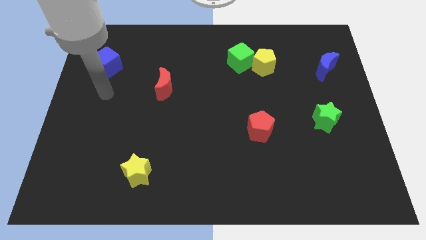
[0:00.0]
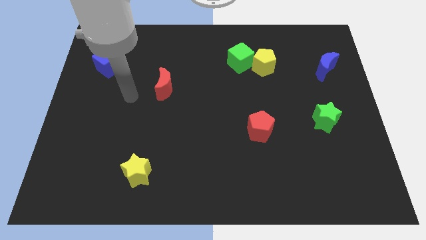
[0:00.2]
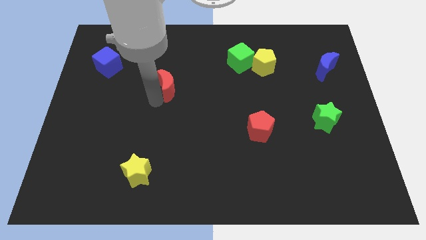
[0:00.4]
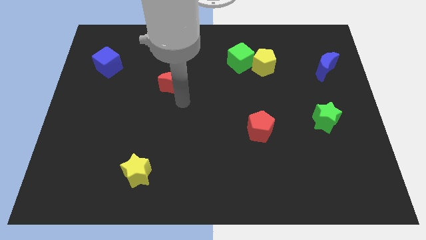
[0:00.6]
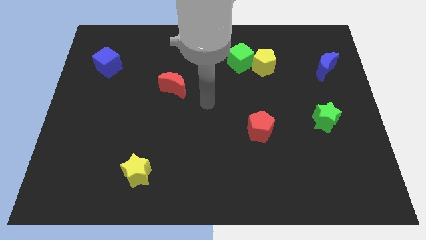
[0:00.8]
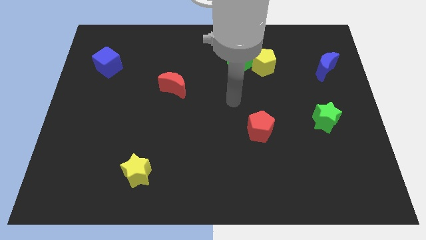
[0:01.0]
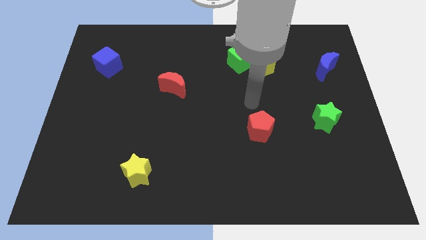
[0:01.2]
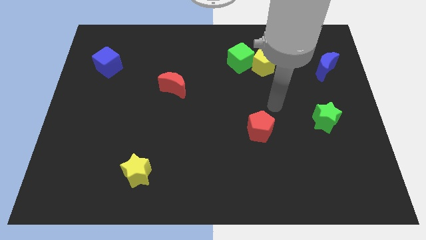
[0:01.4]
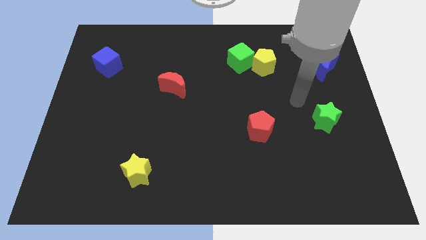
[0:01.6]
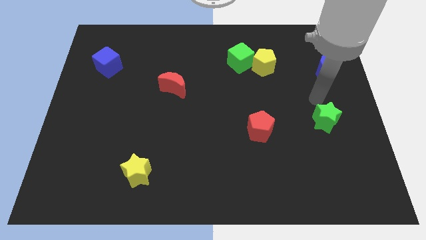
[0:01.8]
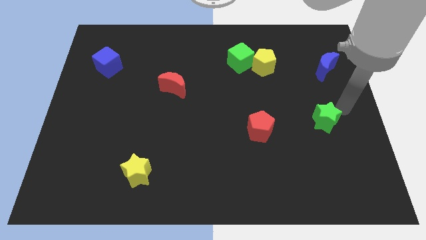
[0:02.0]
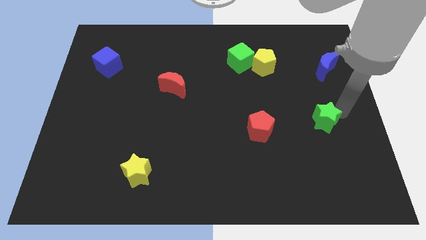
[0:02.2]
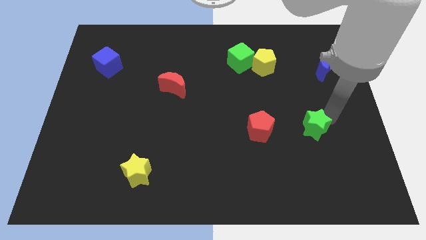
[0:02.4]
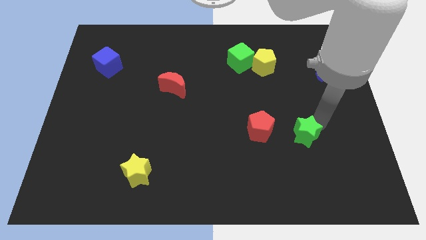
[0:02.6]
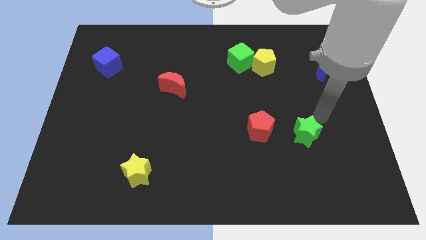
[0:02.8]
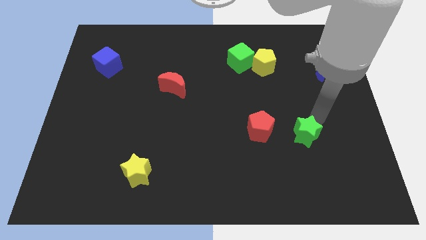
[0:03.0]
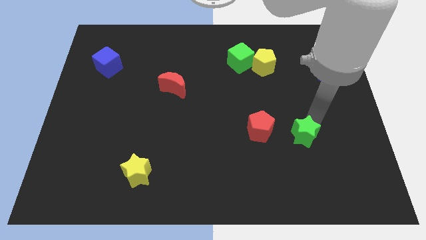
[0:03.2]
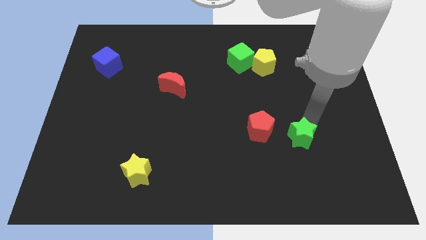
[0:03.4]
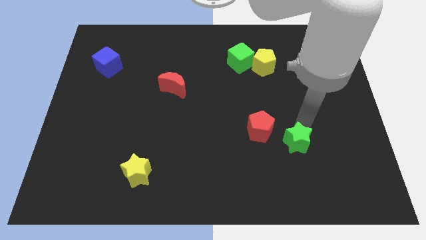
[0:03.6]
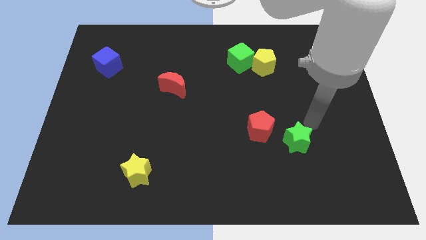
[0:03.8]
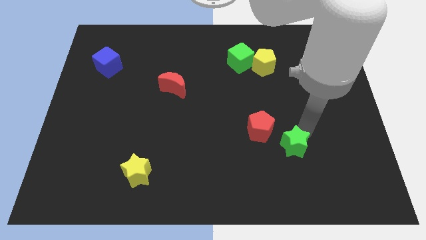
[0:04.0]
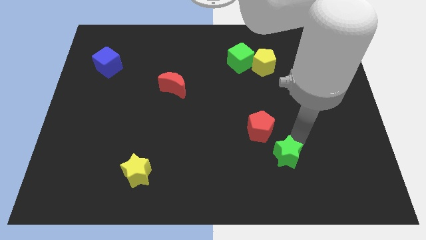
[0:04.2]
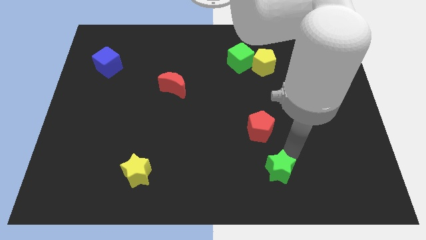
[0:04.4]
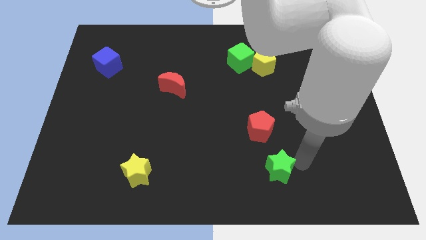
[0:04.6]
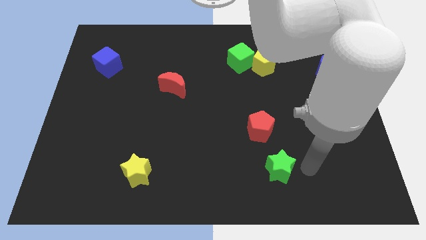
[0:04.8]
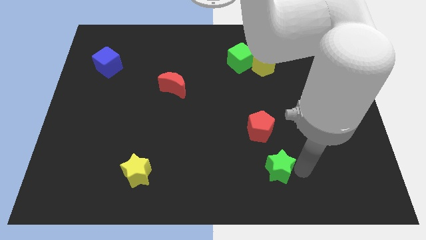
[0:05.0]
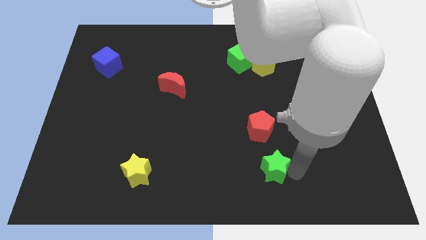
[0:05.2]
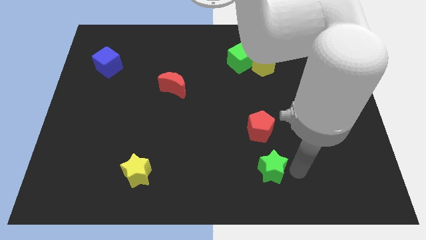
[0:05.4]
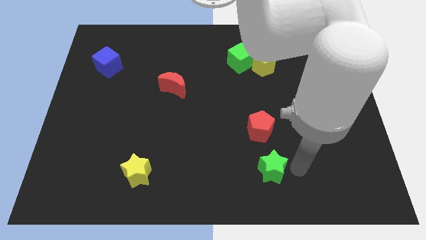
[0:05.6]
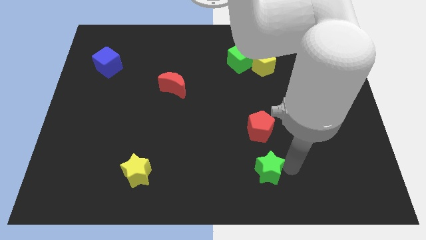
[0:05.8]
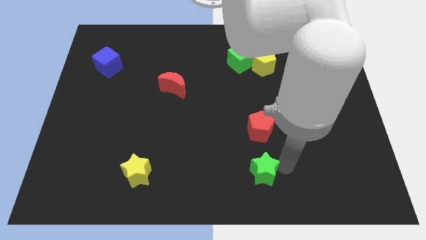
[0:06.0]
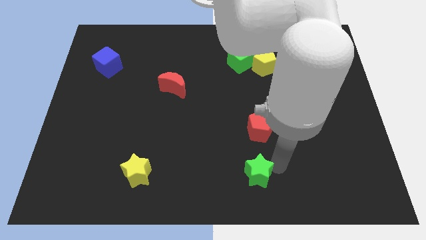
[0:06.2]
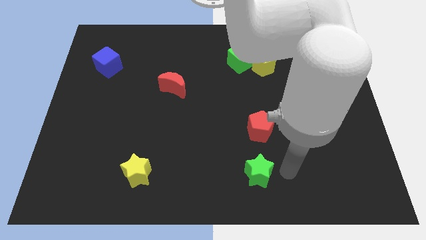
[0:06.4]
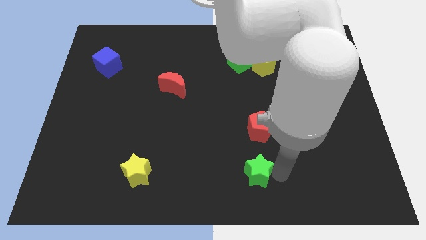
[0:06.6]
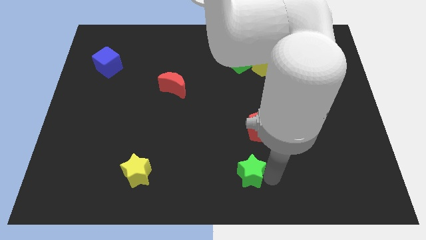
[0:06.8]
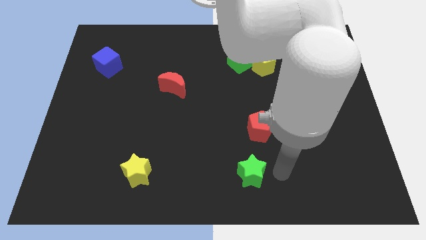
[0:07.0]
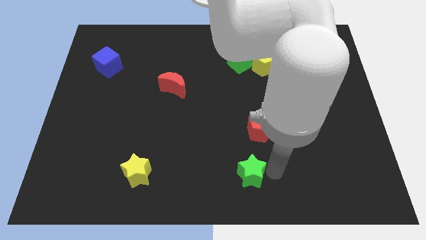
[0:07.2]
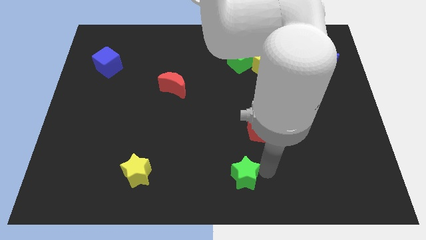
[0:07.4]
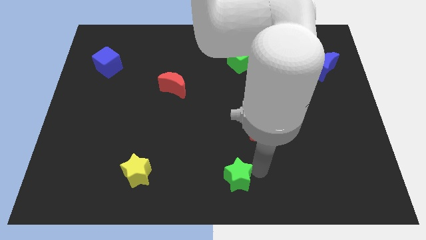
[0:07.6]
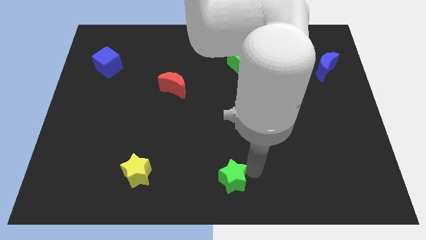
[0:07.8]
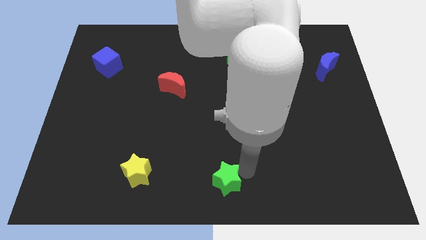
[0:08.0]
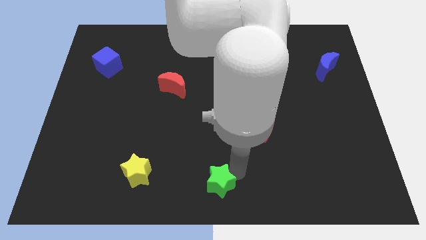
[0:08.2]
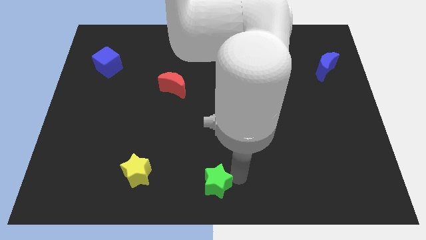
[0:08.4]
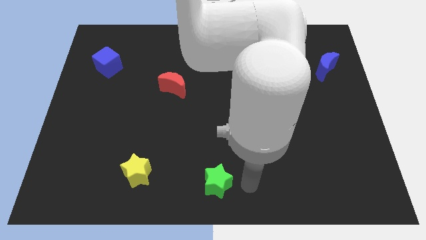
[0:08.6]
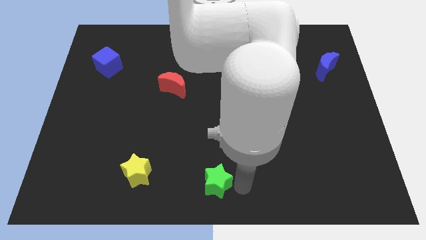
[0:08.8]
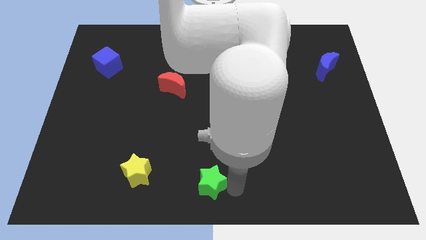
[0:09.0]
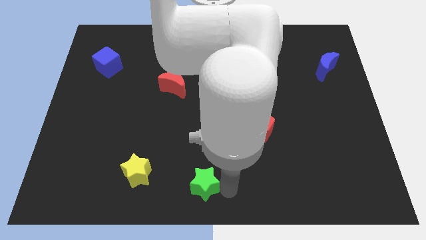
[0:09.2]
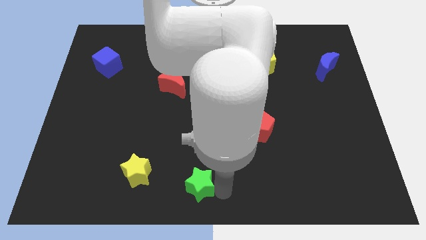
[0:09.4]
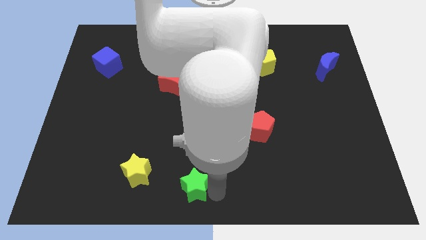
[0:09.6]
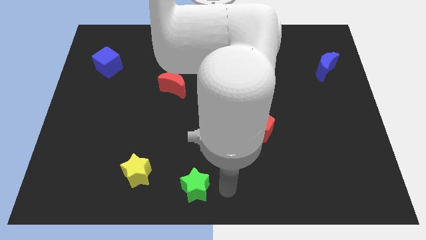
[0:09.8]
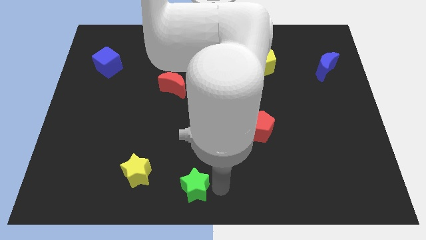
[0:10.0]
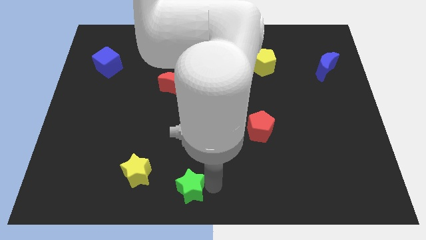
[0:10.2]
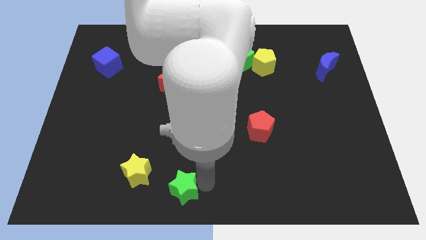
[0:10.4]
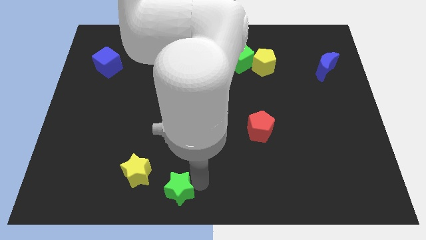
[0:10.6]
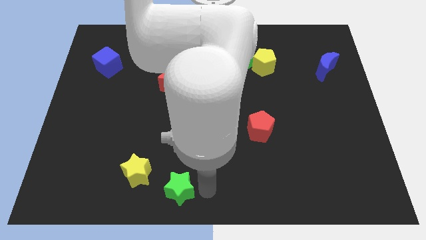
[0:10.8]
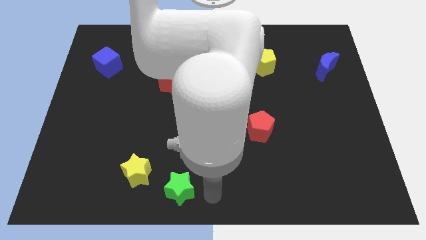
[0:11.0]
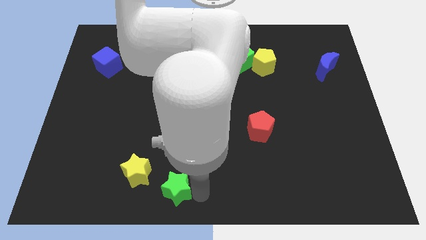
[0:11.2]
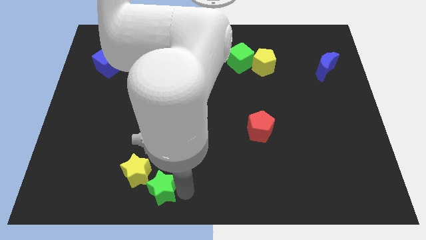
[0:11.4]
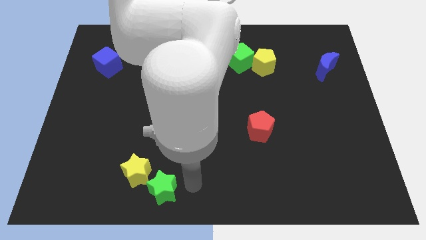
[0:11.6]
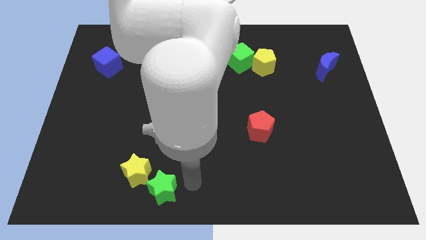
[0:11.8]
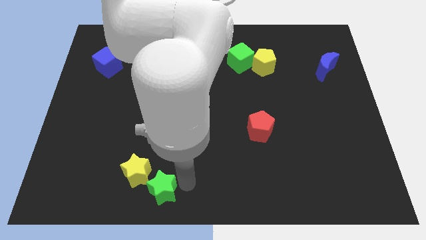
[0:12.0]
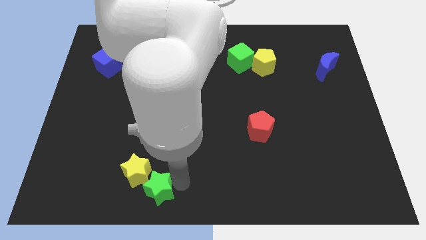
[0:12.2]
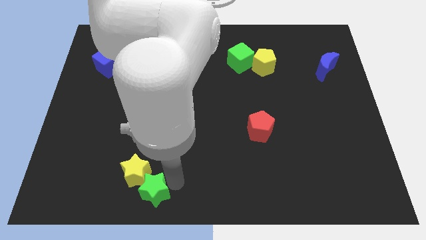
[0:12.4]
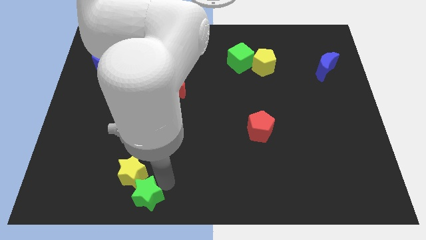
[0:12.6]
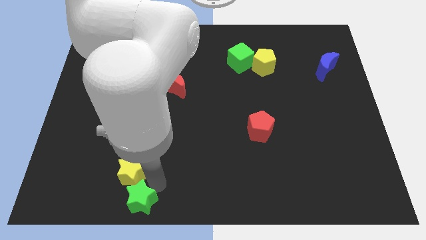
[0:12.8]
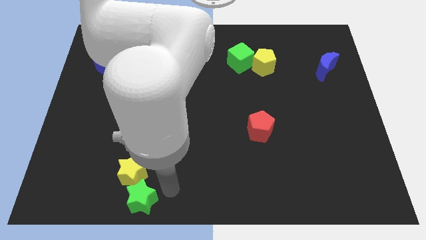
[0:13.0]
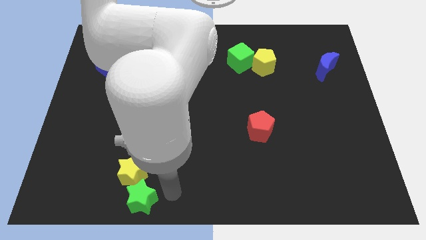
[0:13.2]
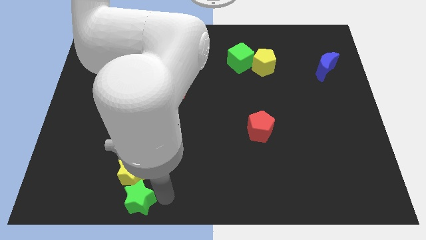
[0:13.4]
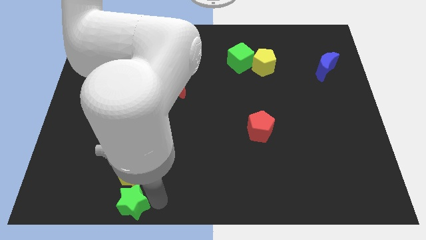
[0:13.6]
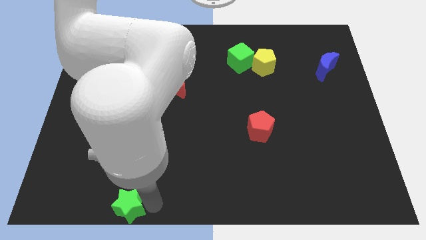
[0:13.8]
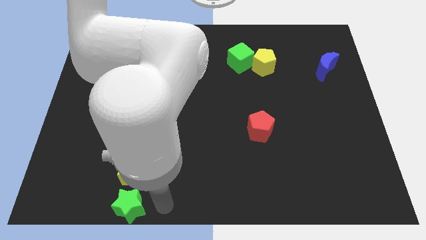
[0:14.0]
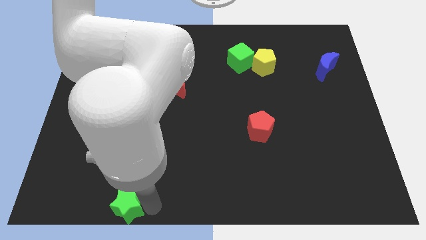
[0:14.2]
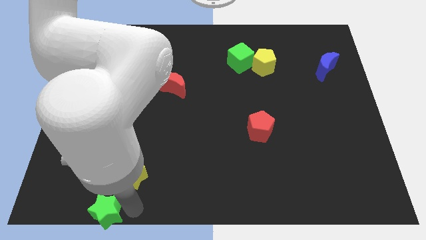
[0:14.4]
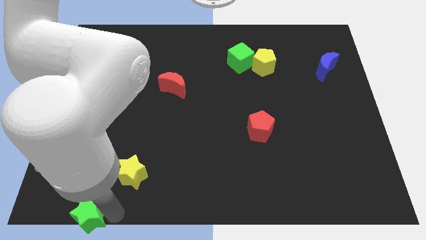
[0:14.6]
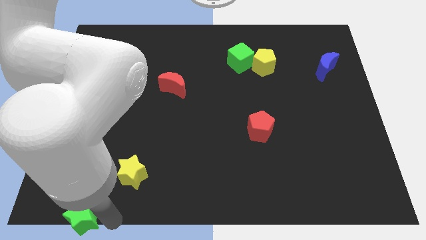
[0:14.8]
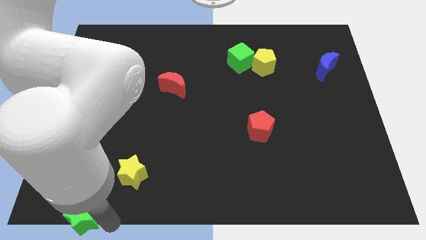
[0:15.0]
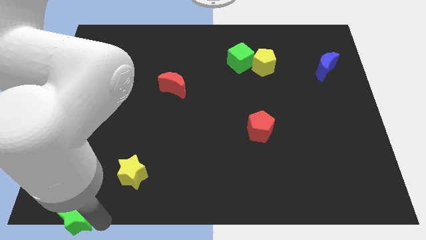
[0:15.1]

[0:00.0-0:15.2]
push the green star to the bottom left
